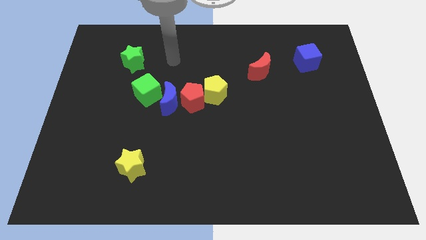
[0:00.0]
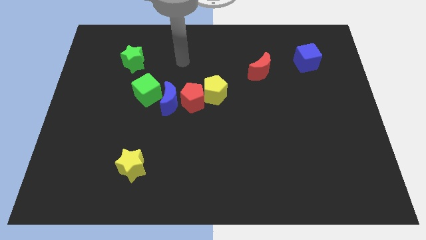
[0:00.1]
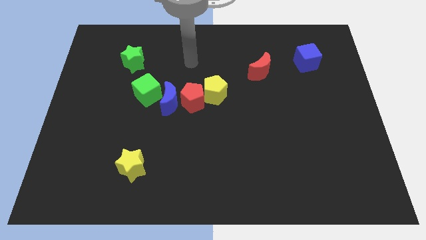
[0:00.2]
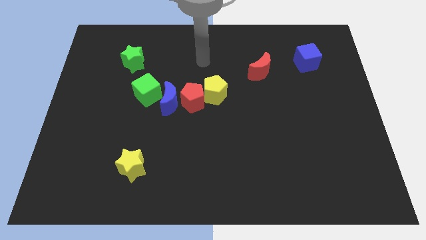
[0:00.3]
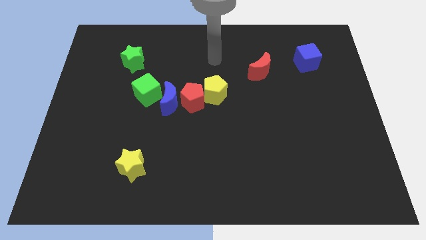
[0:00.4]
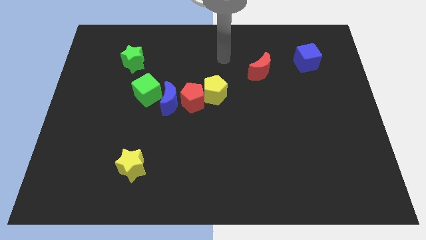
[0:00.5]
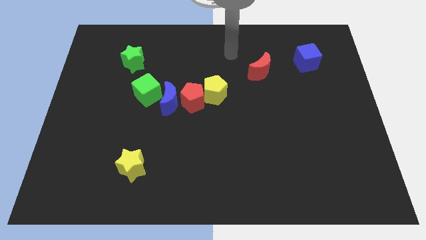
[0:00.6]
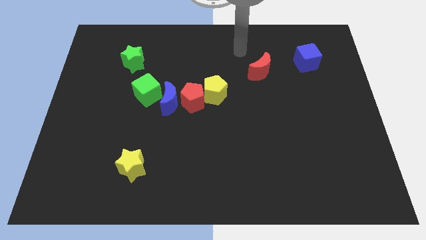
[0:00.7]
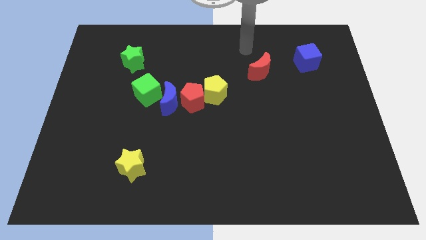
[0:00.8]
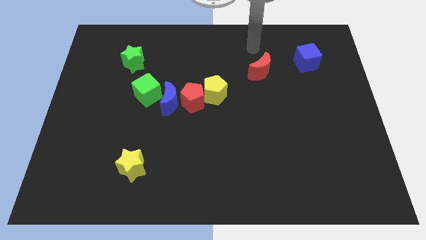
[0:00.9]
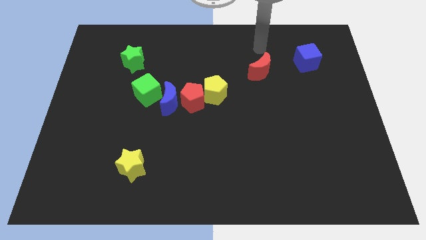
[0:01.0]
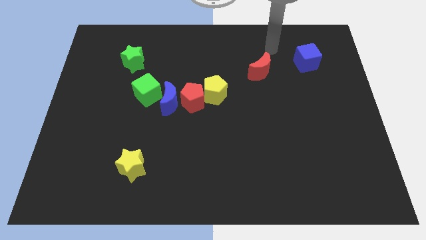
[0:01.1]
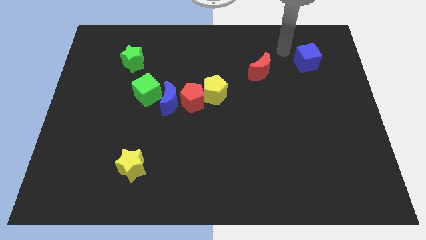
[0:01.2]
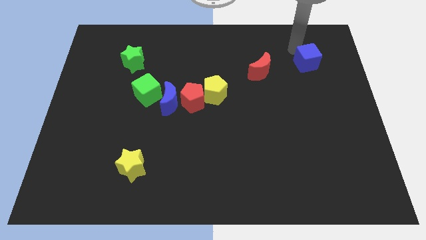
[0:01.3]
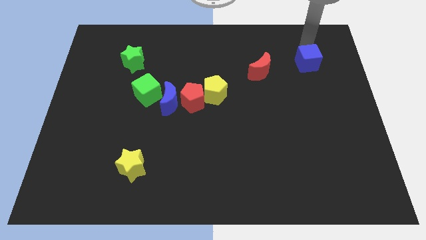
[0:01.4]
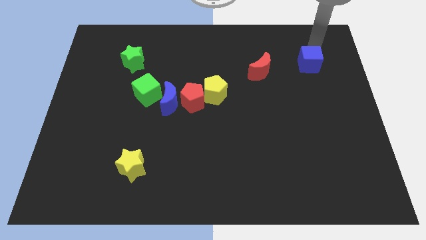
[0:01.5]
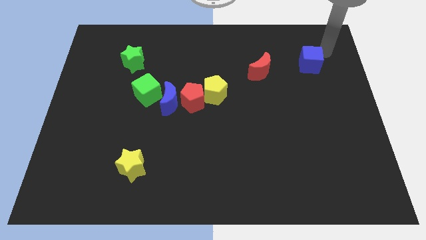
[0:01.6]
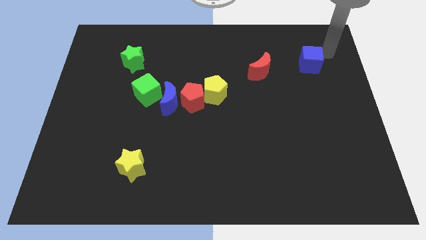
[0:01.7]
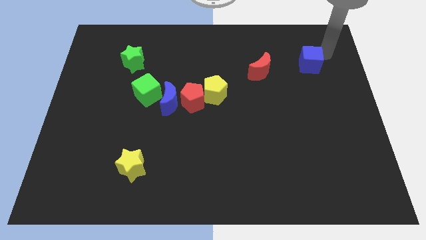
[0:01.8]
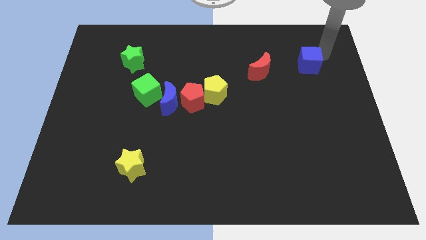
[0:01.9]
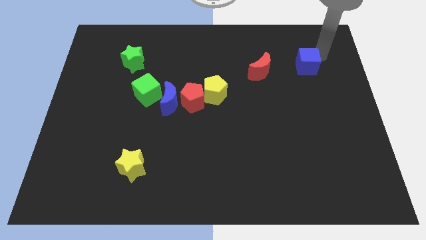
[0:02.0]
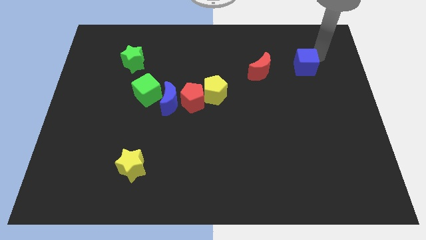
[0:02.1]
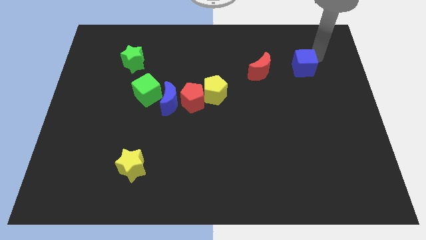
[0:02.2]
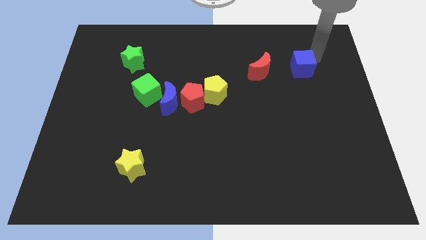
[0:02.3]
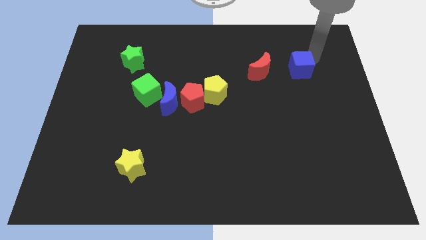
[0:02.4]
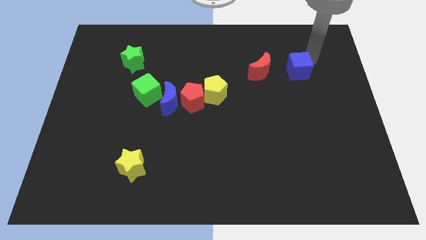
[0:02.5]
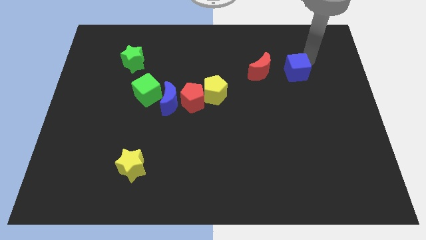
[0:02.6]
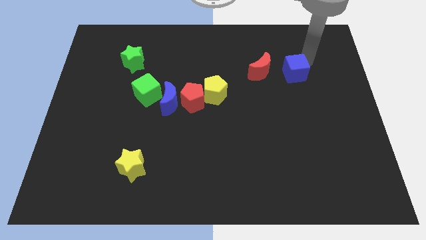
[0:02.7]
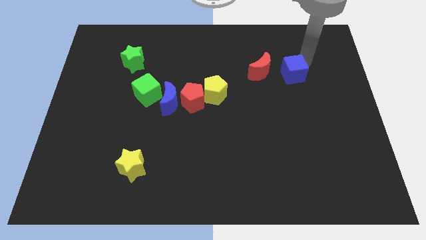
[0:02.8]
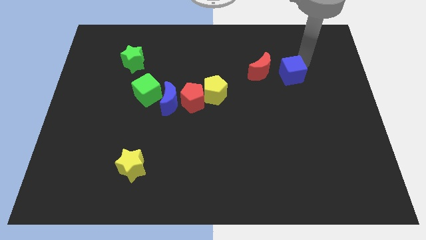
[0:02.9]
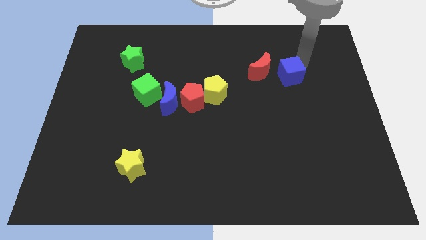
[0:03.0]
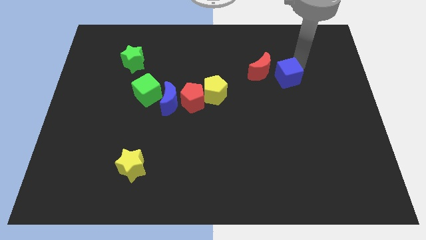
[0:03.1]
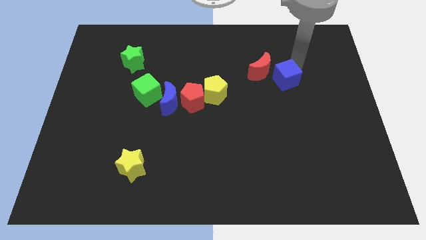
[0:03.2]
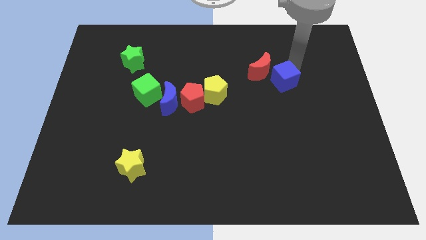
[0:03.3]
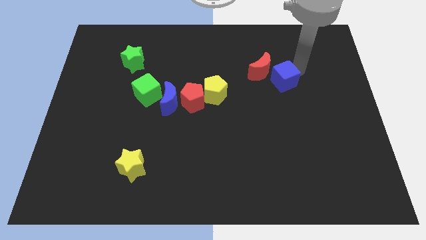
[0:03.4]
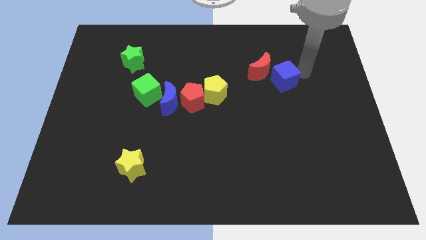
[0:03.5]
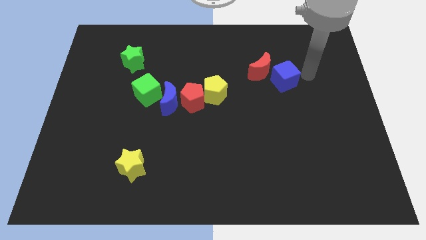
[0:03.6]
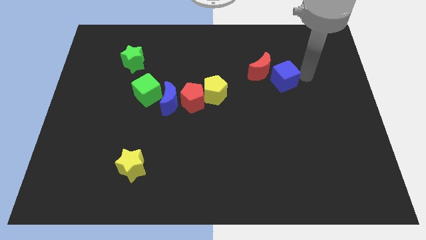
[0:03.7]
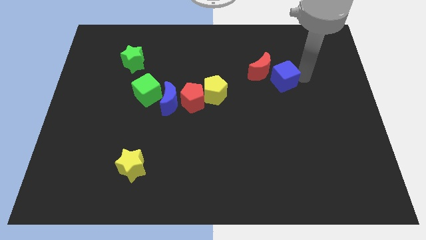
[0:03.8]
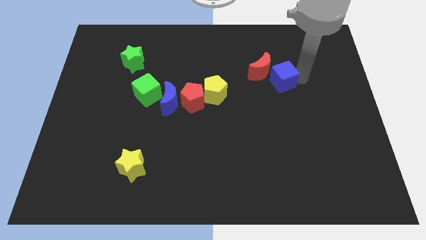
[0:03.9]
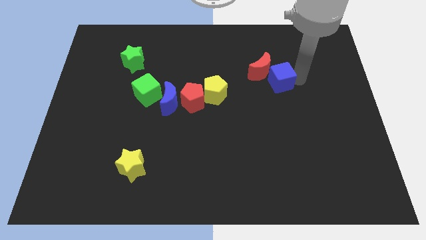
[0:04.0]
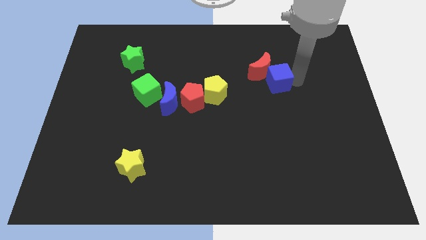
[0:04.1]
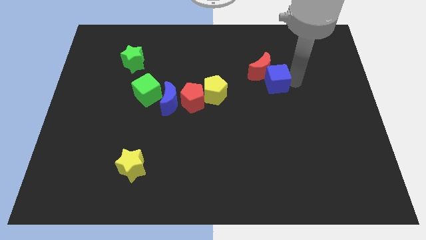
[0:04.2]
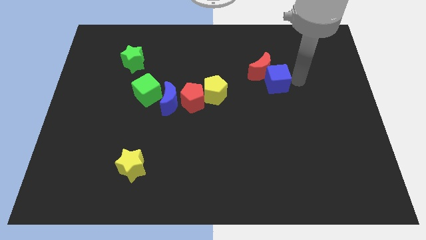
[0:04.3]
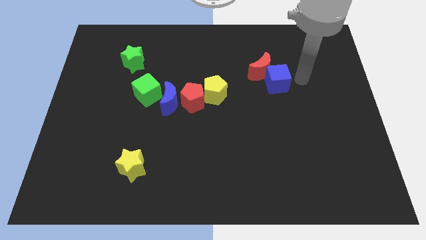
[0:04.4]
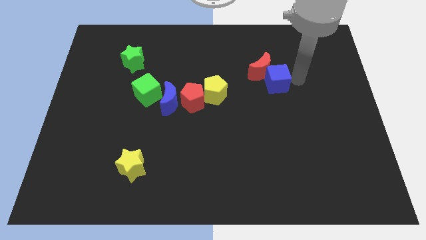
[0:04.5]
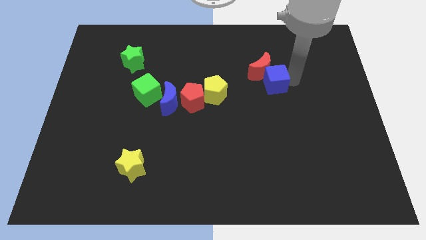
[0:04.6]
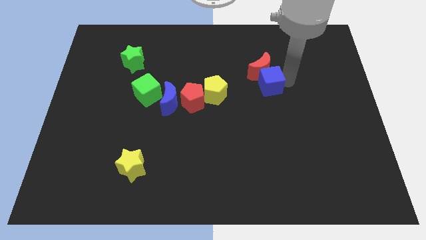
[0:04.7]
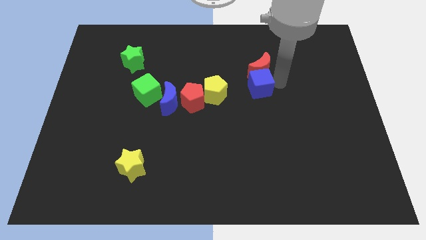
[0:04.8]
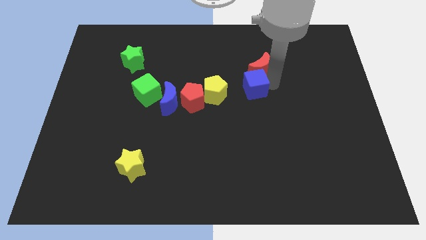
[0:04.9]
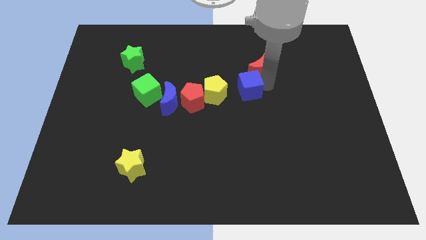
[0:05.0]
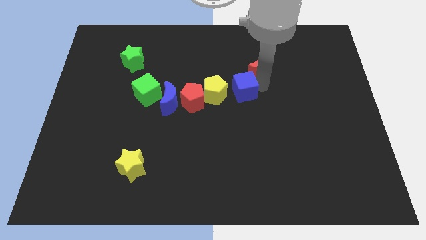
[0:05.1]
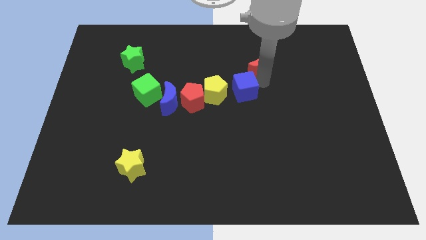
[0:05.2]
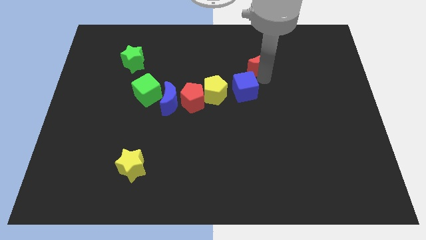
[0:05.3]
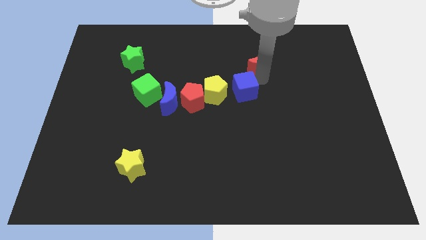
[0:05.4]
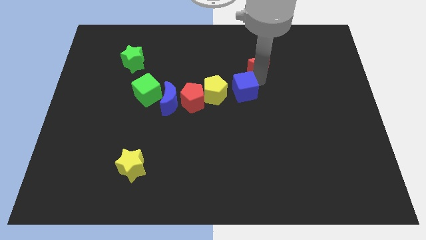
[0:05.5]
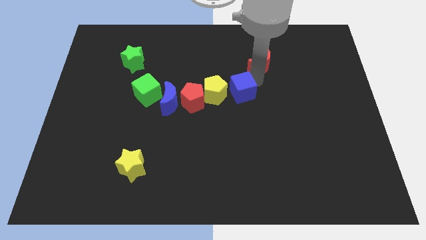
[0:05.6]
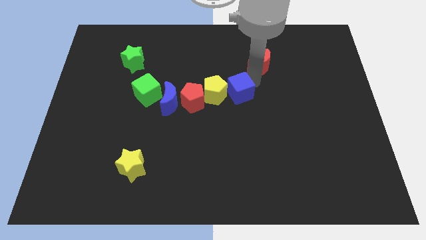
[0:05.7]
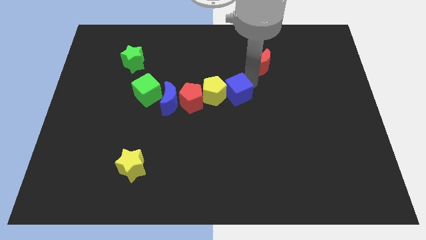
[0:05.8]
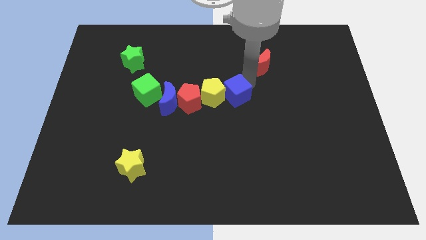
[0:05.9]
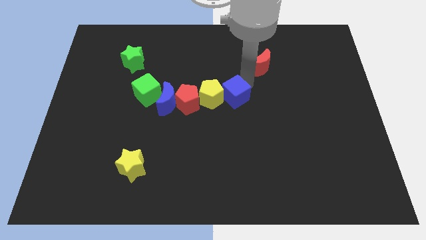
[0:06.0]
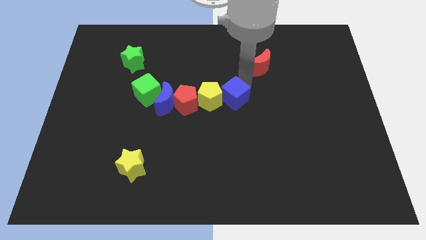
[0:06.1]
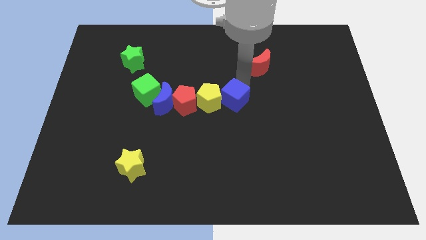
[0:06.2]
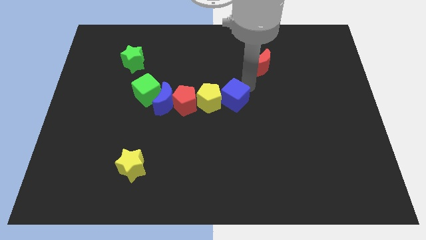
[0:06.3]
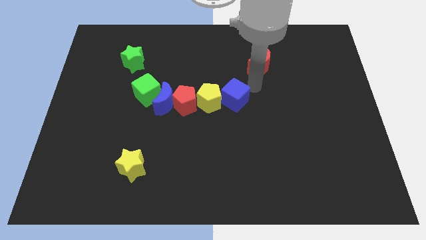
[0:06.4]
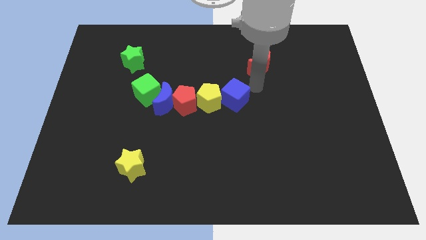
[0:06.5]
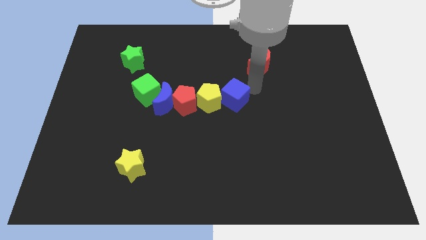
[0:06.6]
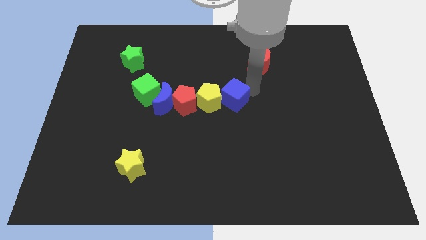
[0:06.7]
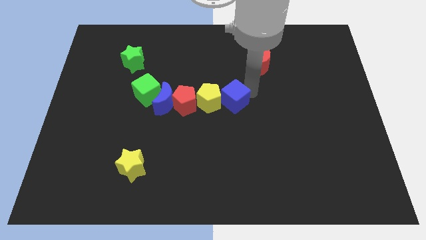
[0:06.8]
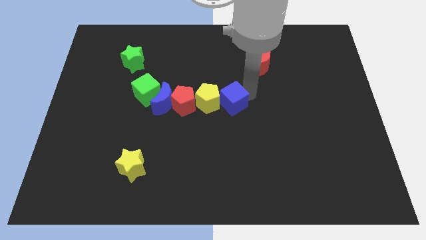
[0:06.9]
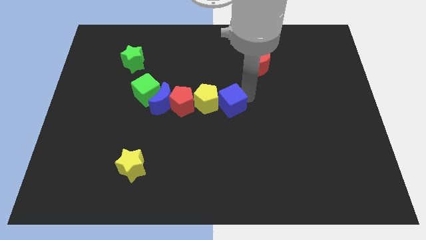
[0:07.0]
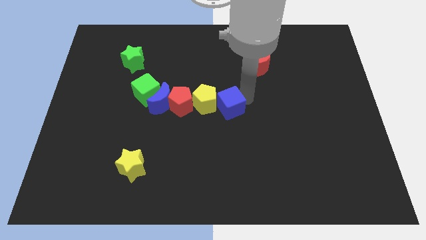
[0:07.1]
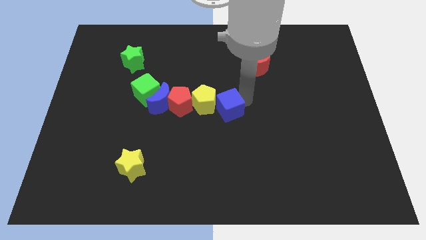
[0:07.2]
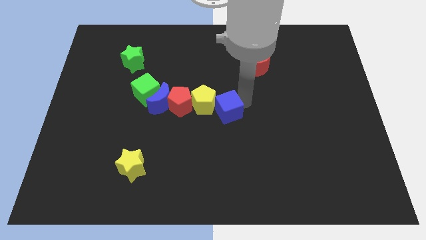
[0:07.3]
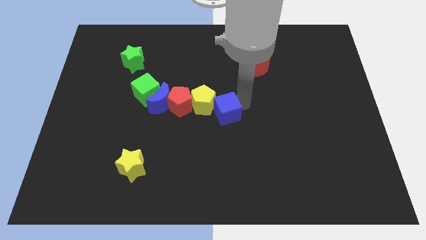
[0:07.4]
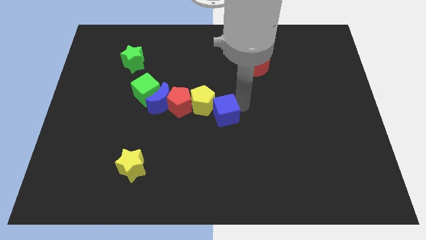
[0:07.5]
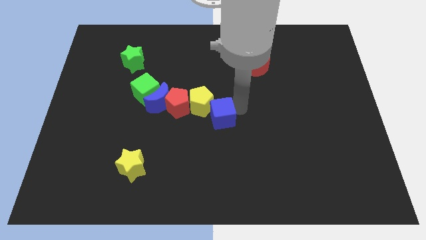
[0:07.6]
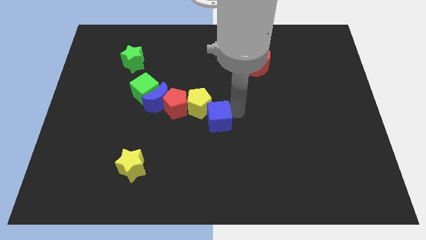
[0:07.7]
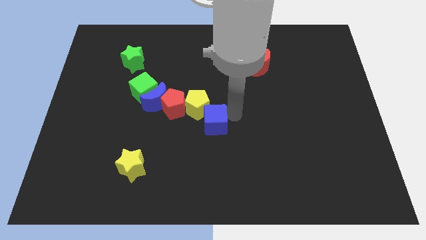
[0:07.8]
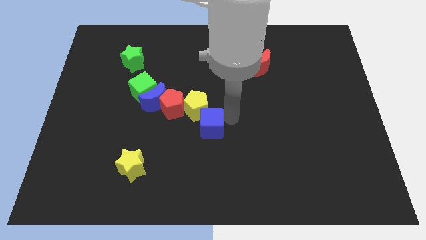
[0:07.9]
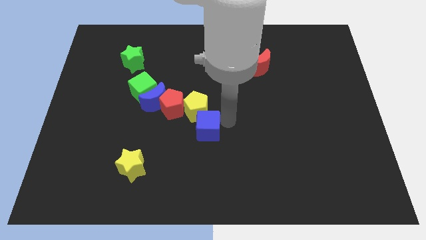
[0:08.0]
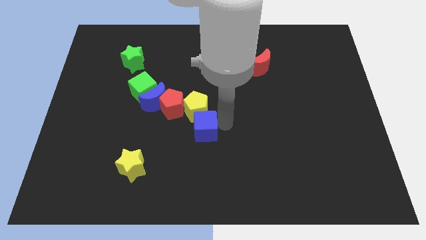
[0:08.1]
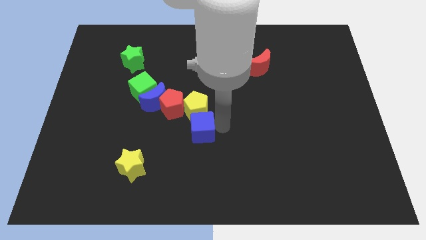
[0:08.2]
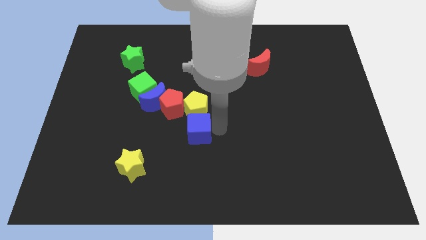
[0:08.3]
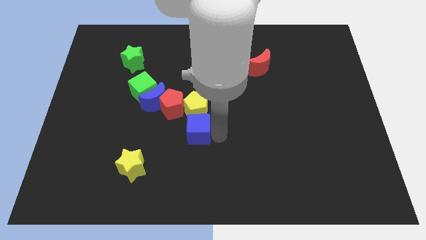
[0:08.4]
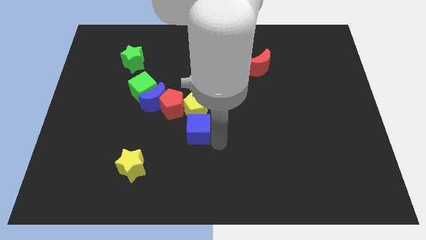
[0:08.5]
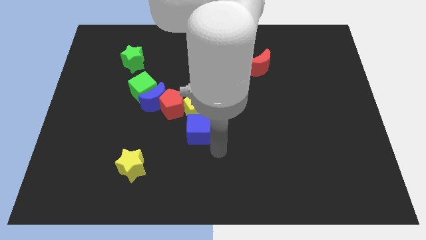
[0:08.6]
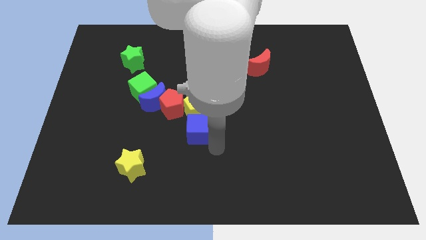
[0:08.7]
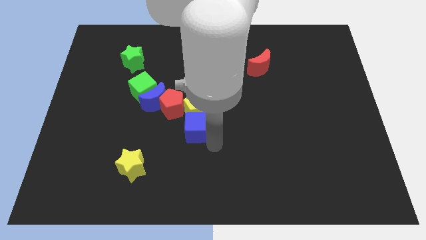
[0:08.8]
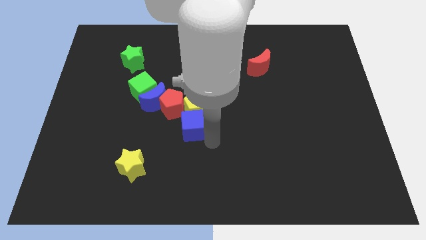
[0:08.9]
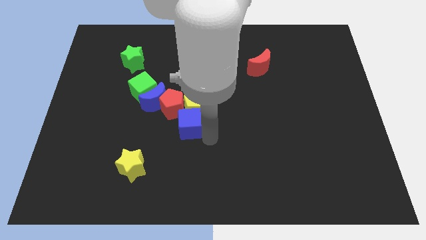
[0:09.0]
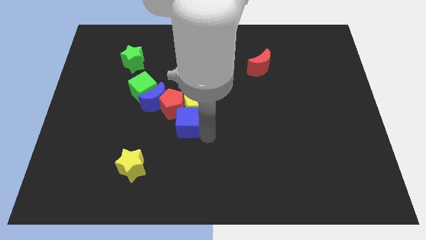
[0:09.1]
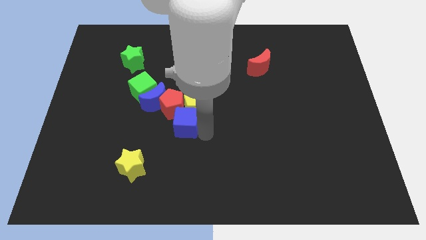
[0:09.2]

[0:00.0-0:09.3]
slide the blue cube to the red pentagon
